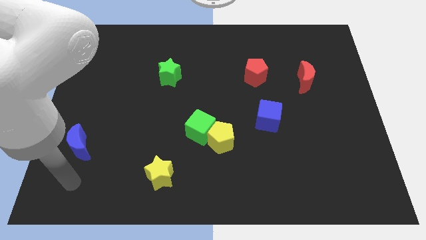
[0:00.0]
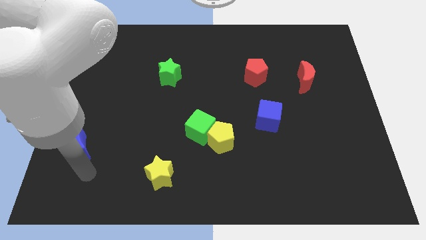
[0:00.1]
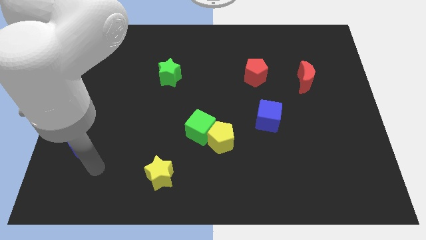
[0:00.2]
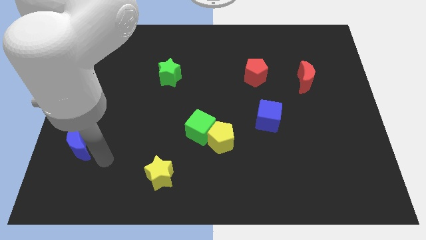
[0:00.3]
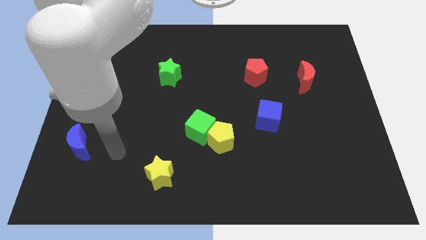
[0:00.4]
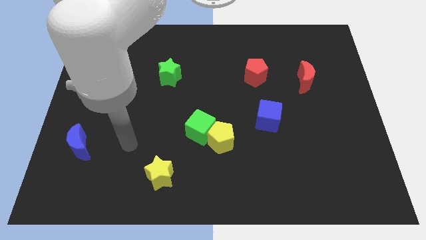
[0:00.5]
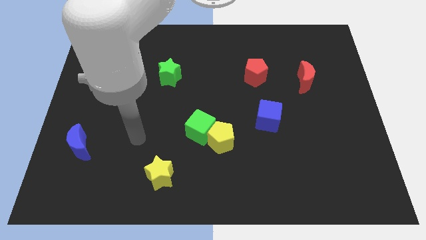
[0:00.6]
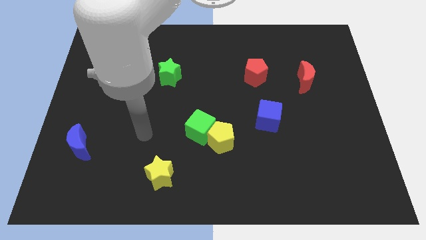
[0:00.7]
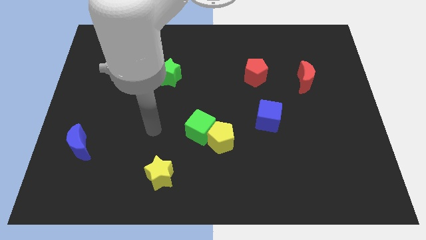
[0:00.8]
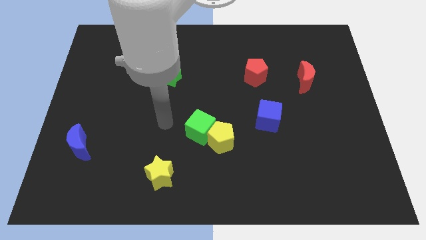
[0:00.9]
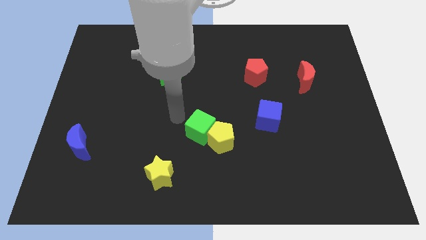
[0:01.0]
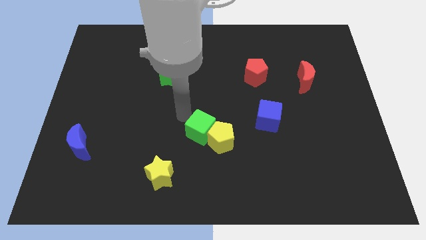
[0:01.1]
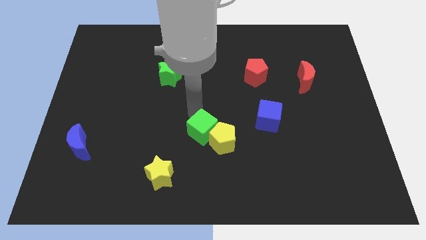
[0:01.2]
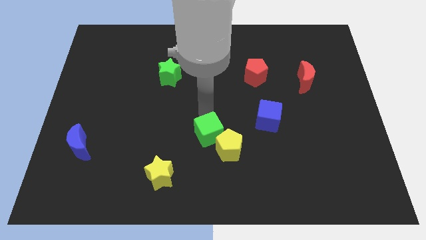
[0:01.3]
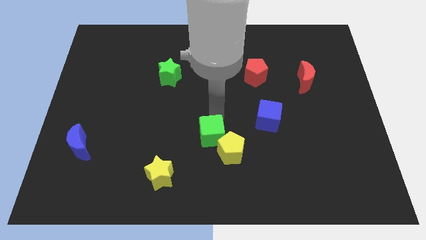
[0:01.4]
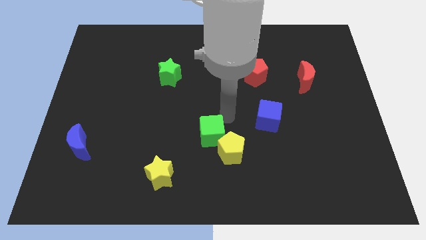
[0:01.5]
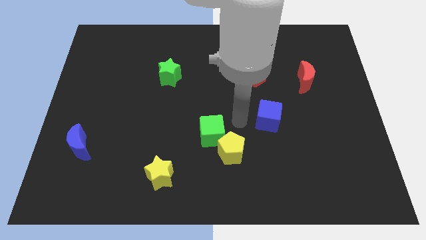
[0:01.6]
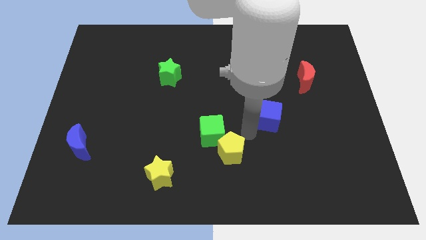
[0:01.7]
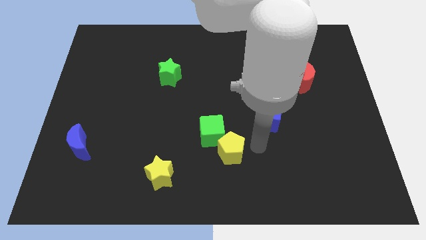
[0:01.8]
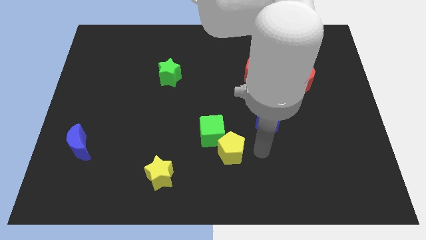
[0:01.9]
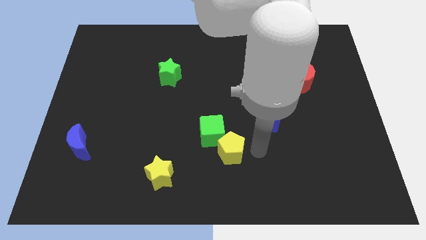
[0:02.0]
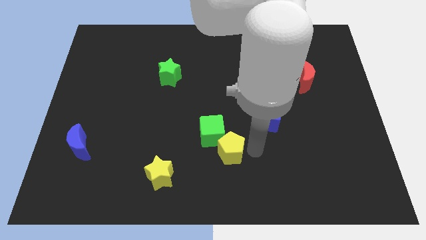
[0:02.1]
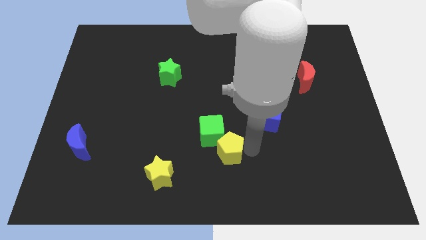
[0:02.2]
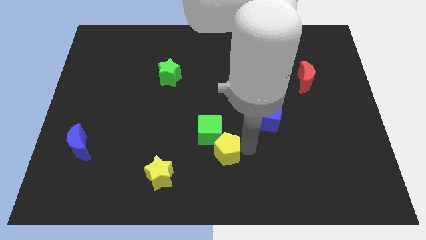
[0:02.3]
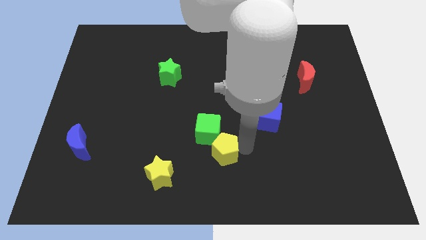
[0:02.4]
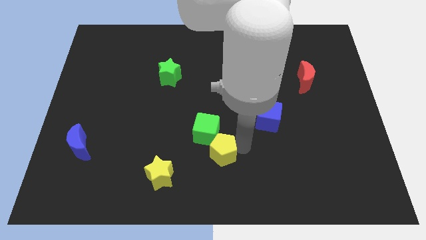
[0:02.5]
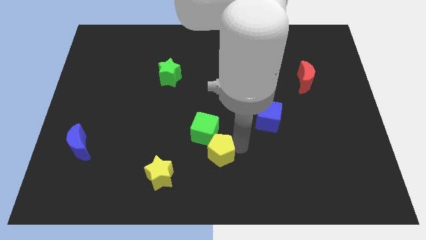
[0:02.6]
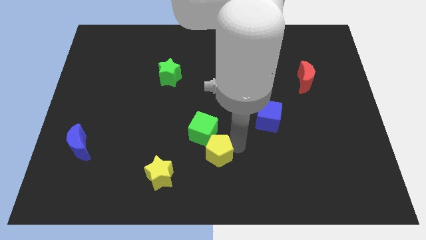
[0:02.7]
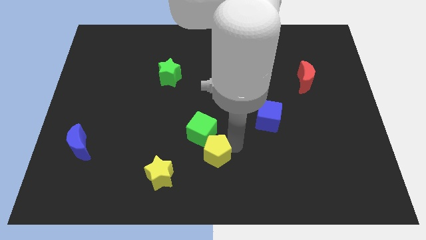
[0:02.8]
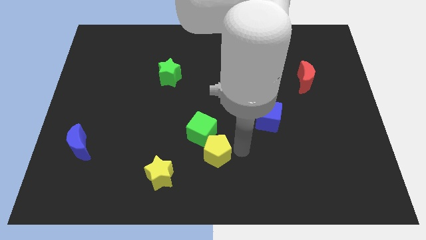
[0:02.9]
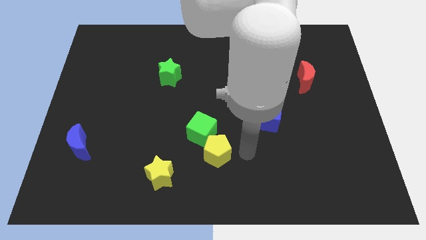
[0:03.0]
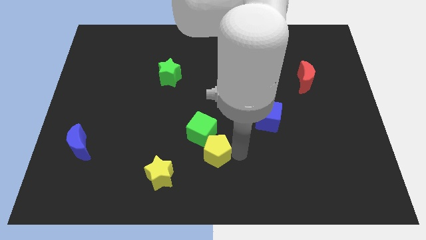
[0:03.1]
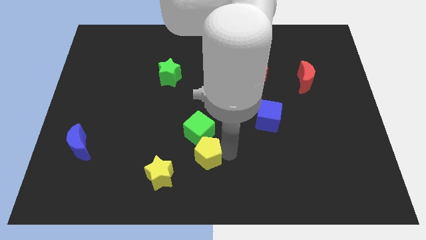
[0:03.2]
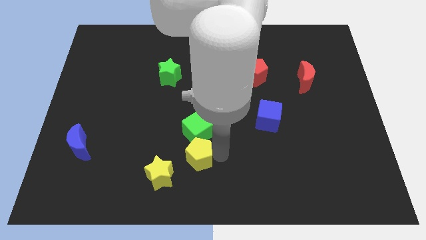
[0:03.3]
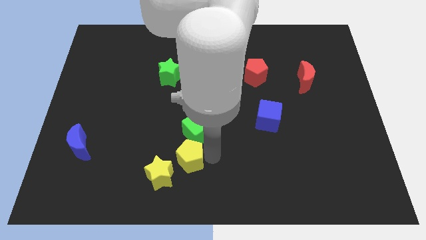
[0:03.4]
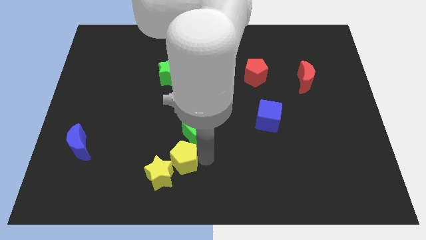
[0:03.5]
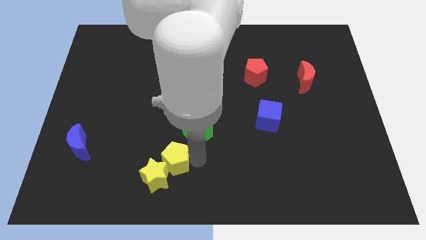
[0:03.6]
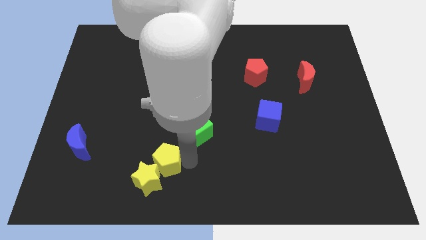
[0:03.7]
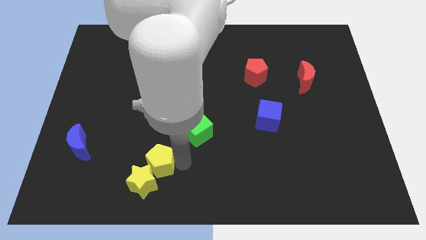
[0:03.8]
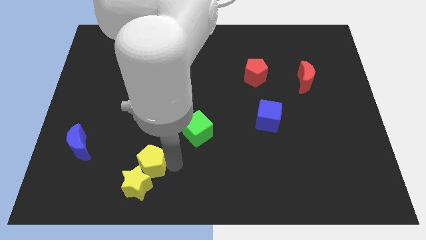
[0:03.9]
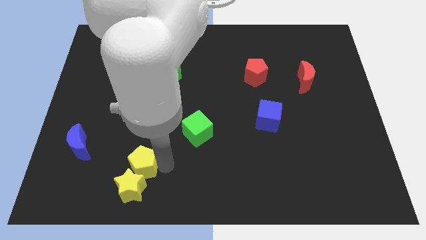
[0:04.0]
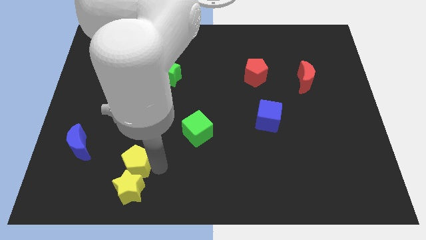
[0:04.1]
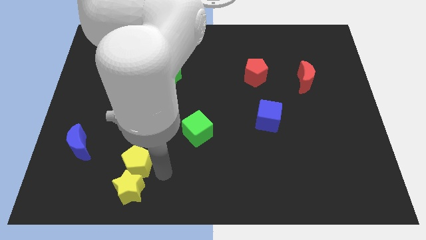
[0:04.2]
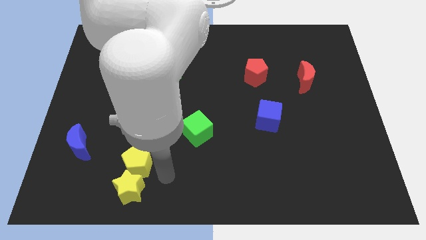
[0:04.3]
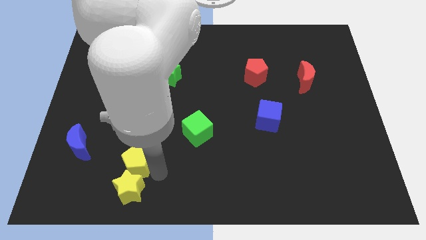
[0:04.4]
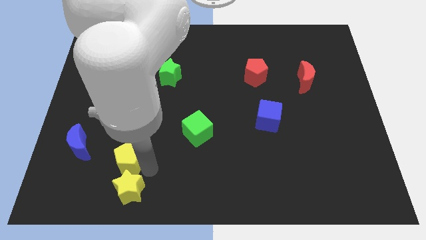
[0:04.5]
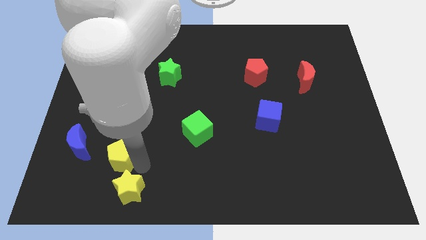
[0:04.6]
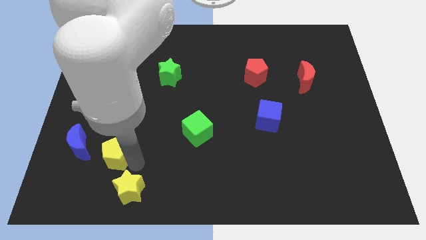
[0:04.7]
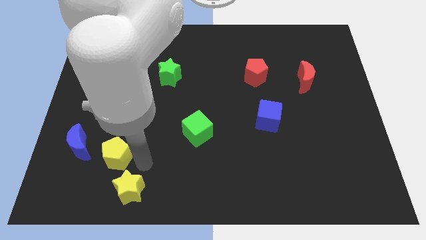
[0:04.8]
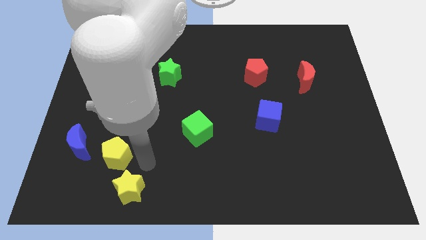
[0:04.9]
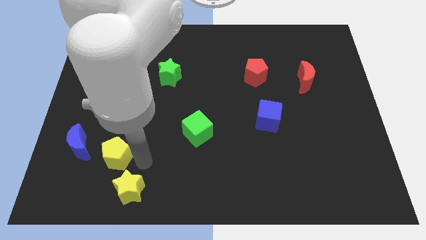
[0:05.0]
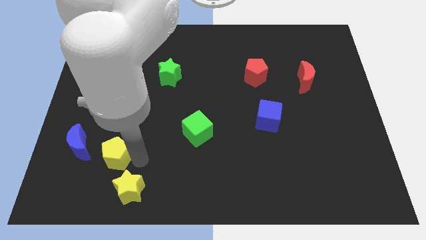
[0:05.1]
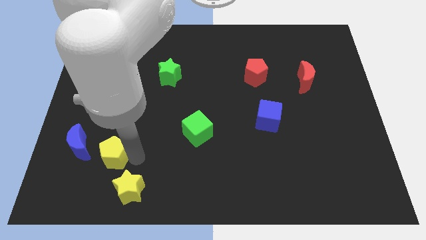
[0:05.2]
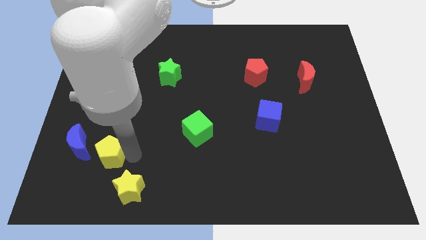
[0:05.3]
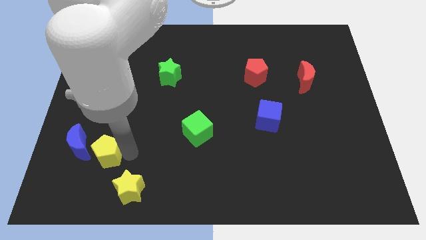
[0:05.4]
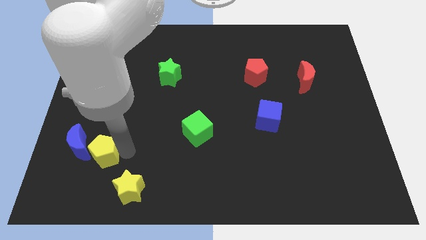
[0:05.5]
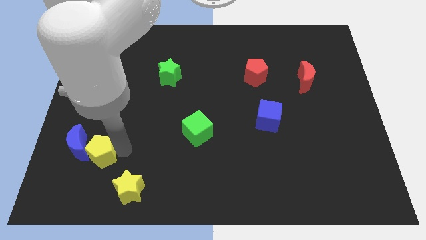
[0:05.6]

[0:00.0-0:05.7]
push the yellow pentagon towards the blue moon

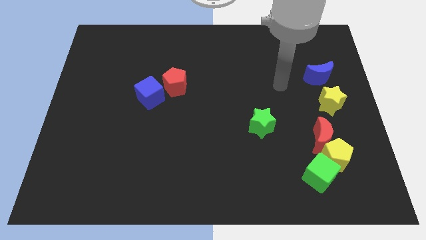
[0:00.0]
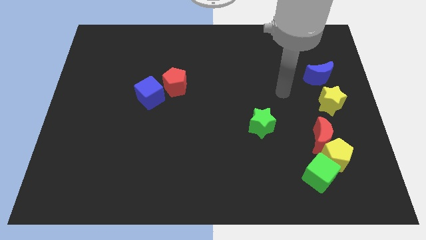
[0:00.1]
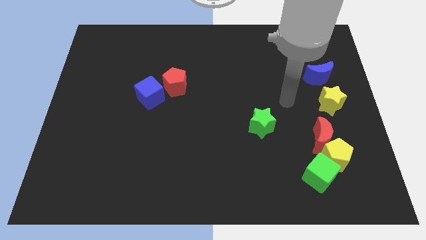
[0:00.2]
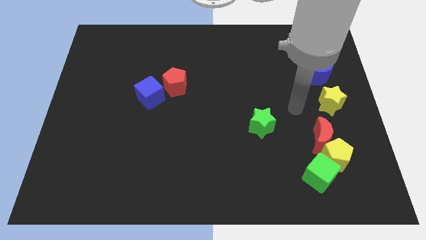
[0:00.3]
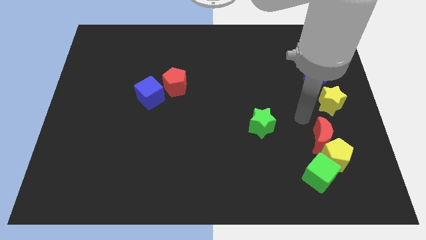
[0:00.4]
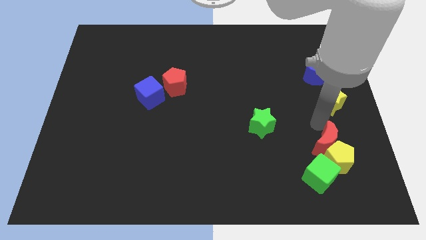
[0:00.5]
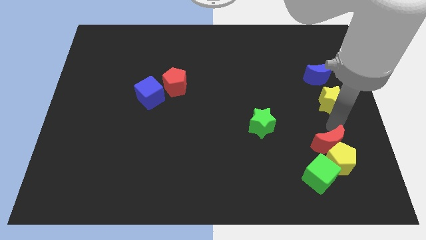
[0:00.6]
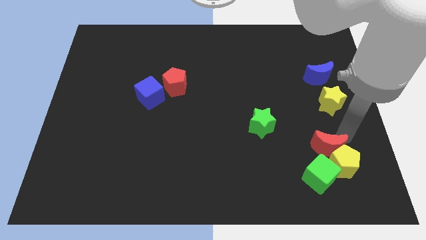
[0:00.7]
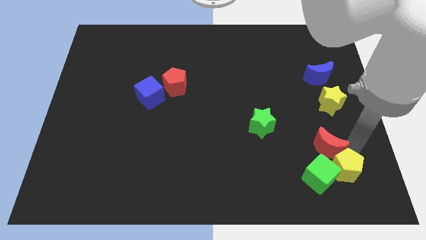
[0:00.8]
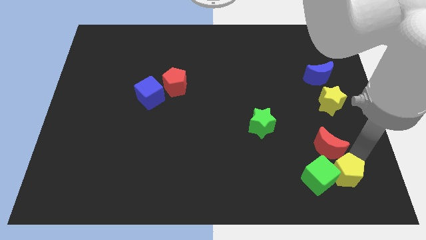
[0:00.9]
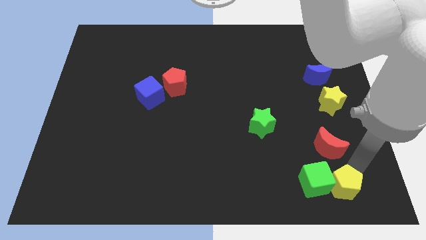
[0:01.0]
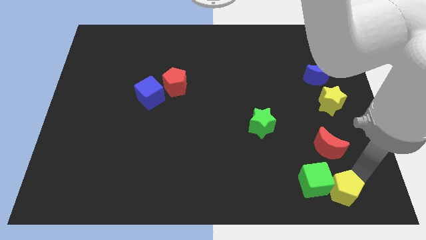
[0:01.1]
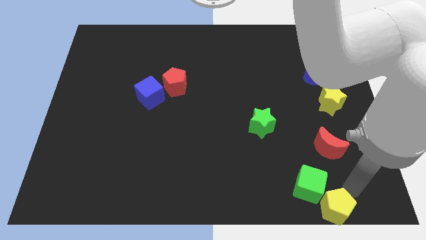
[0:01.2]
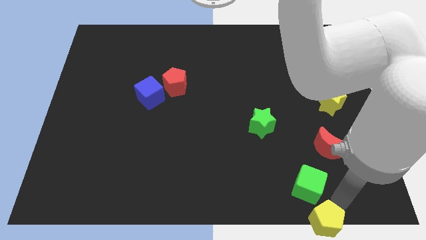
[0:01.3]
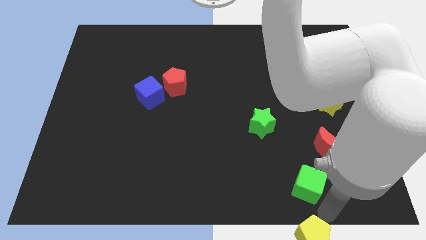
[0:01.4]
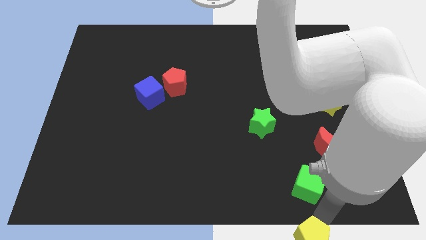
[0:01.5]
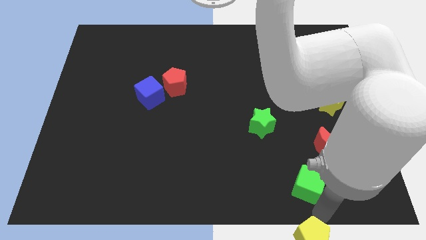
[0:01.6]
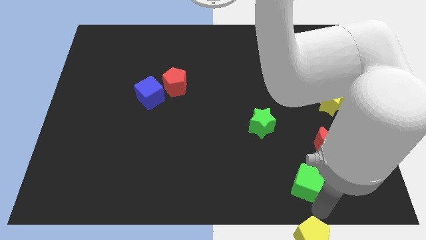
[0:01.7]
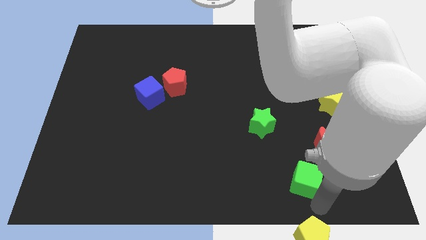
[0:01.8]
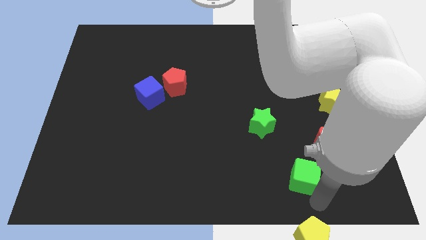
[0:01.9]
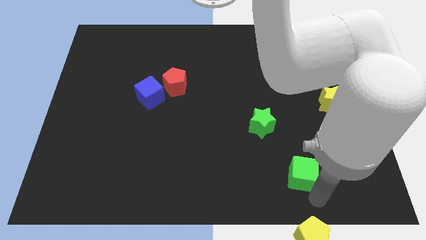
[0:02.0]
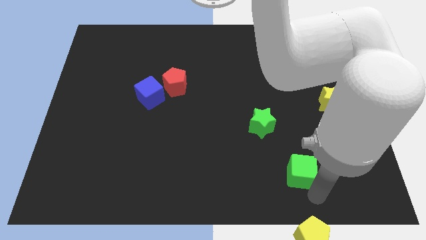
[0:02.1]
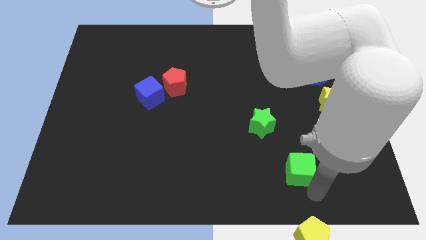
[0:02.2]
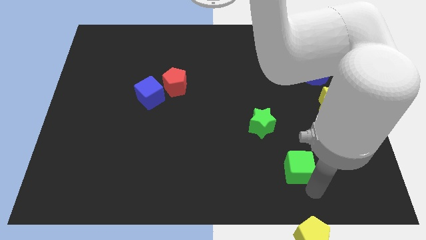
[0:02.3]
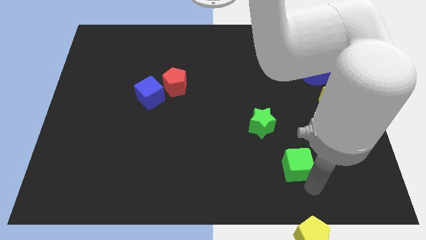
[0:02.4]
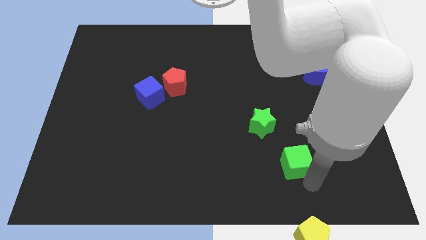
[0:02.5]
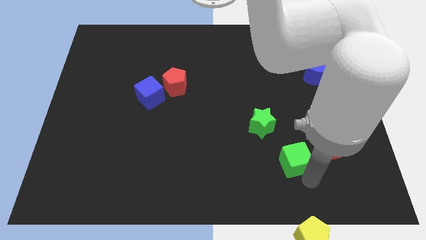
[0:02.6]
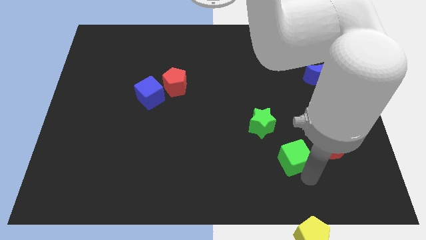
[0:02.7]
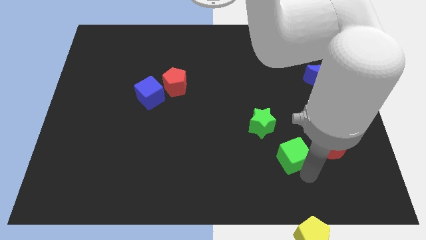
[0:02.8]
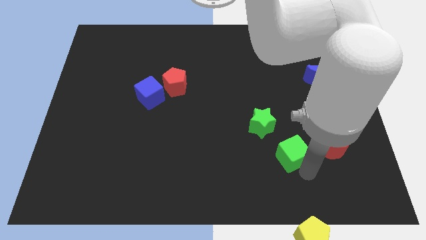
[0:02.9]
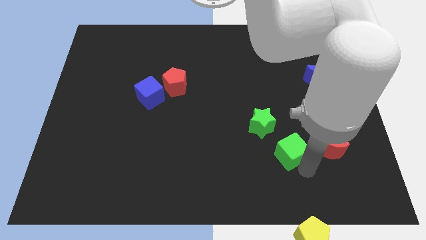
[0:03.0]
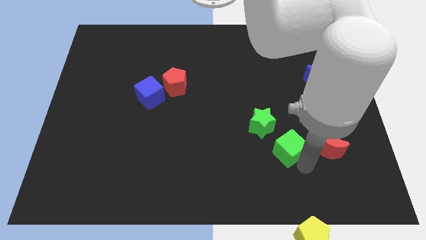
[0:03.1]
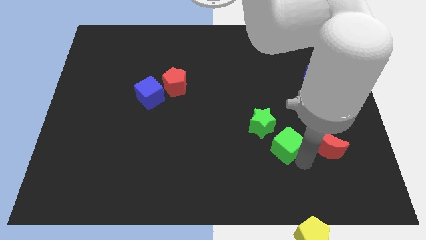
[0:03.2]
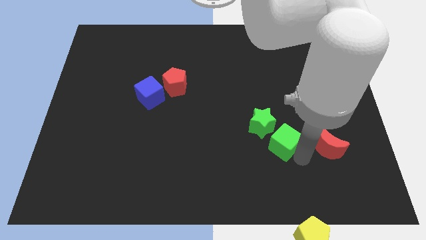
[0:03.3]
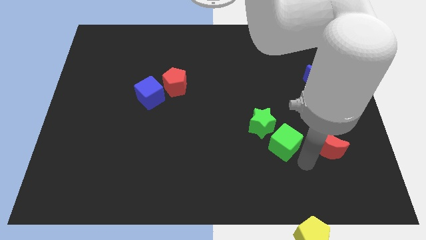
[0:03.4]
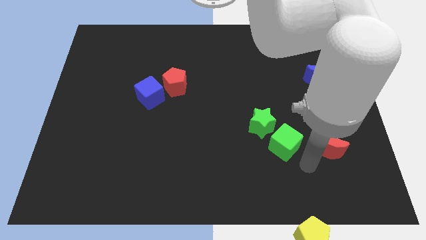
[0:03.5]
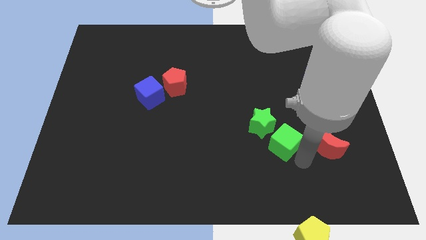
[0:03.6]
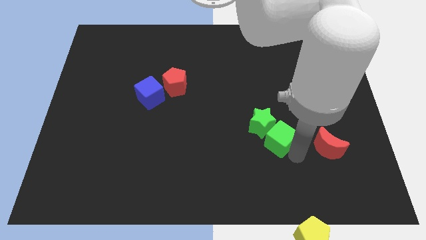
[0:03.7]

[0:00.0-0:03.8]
slide the green cube next to the green star
